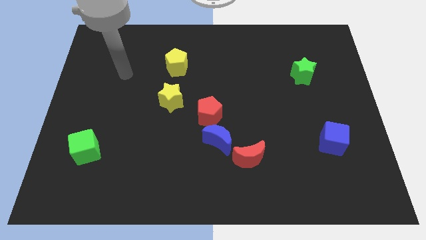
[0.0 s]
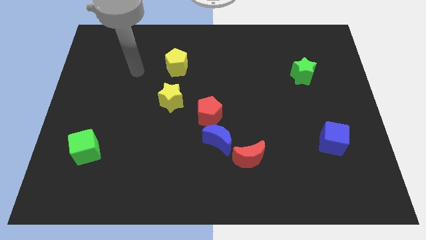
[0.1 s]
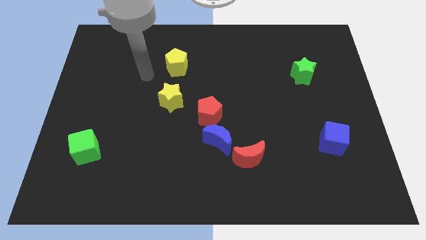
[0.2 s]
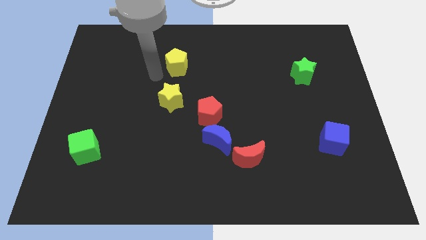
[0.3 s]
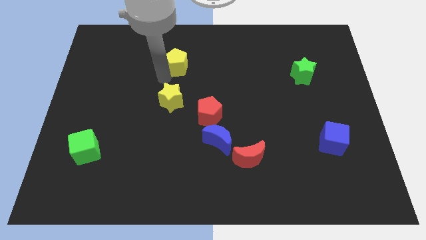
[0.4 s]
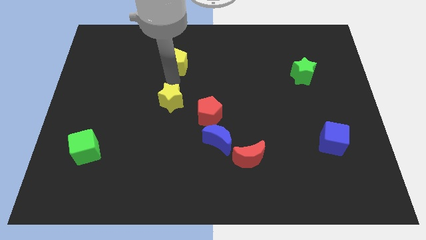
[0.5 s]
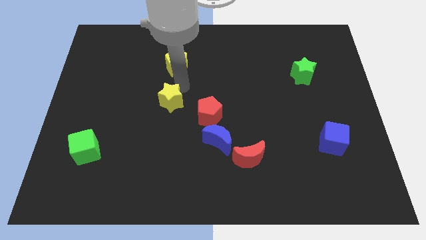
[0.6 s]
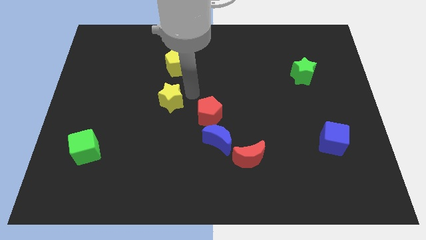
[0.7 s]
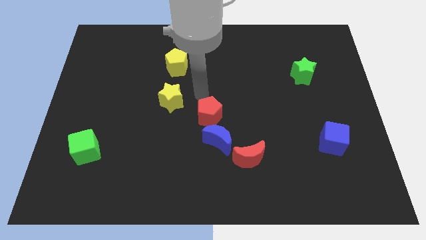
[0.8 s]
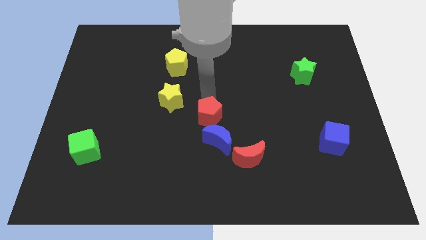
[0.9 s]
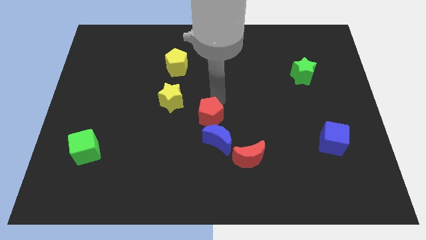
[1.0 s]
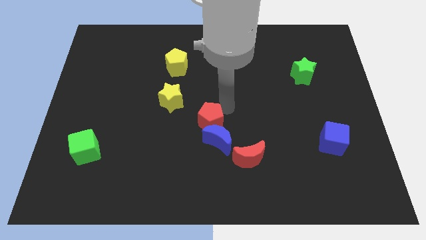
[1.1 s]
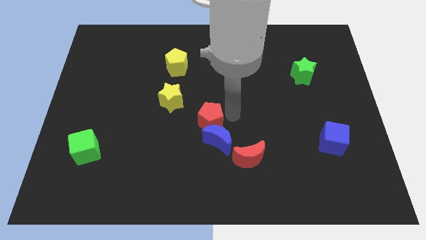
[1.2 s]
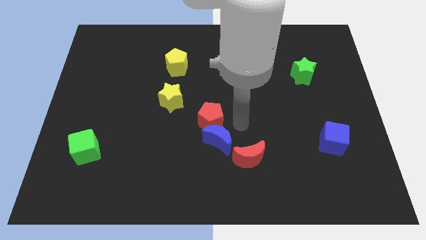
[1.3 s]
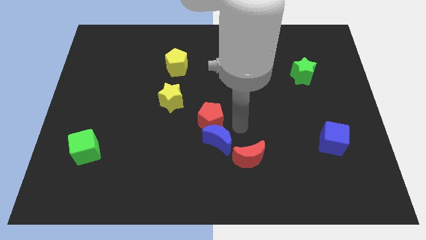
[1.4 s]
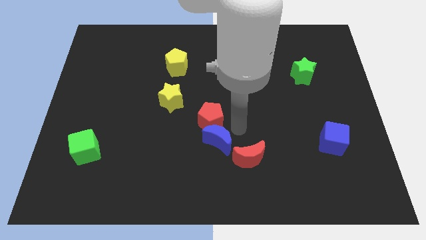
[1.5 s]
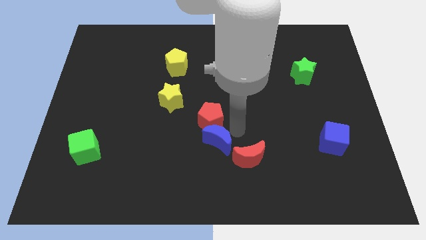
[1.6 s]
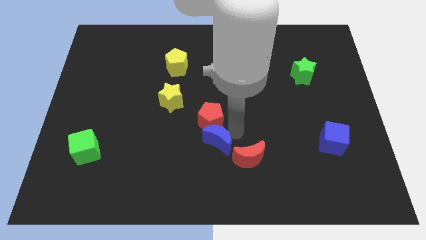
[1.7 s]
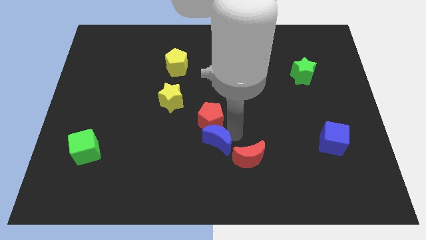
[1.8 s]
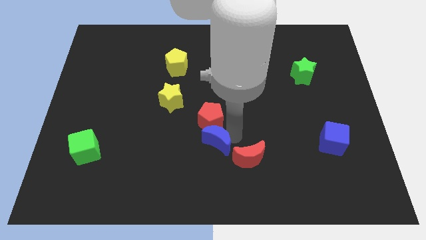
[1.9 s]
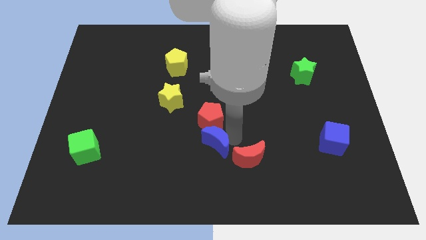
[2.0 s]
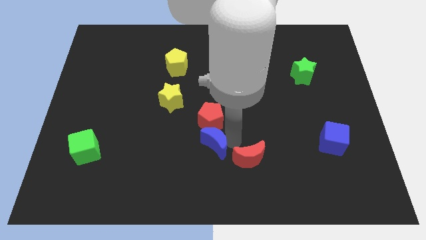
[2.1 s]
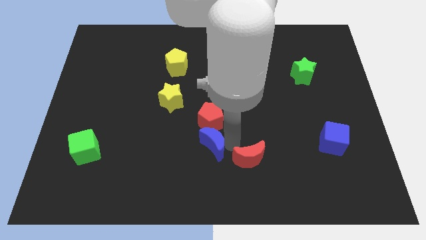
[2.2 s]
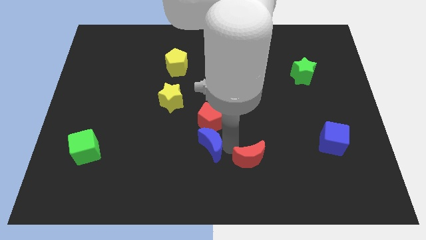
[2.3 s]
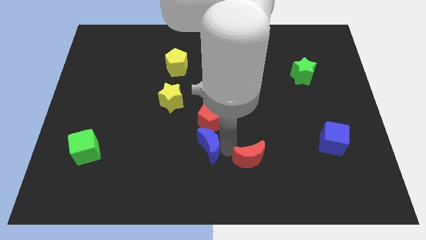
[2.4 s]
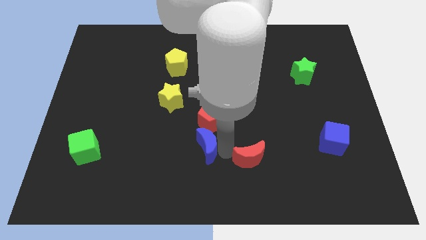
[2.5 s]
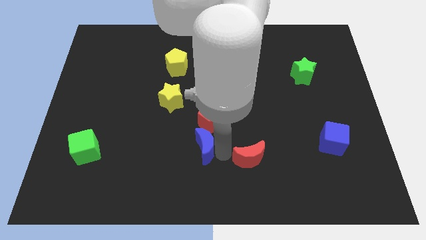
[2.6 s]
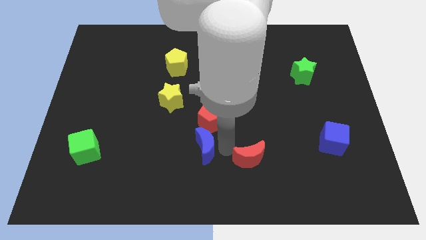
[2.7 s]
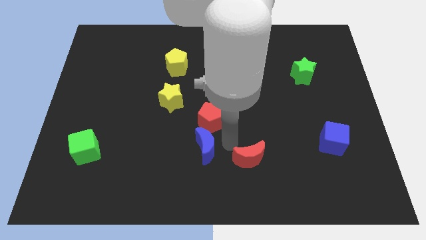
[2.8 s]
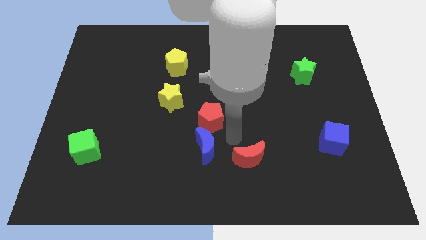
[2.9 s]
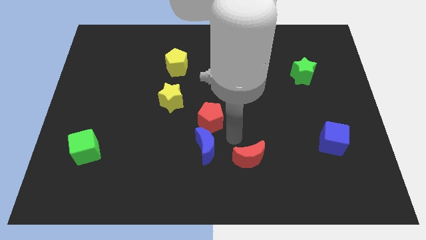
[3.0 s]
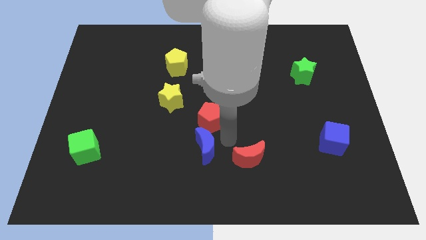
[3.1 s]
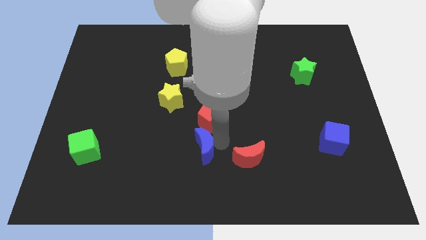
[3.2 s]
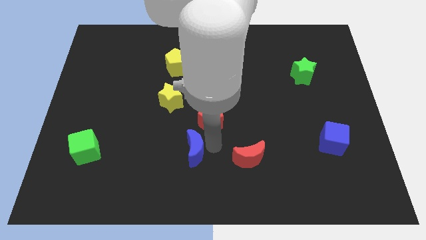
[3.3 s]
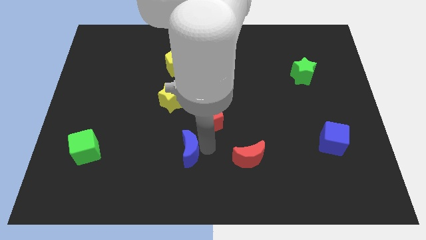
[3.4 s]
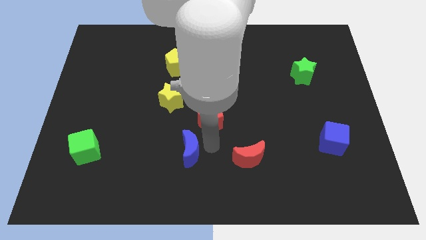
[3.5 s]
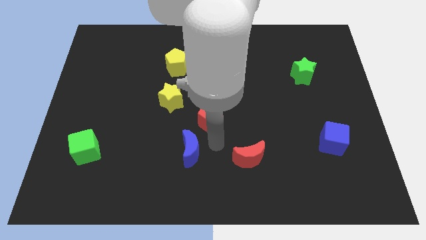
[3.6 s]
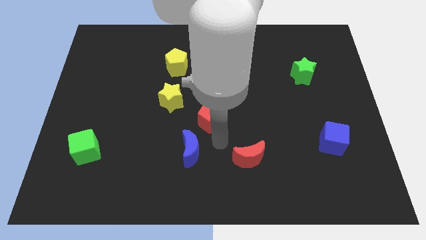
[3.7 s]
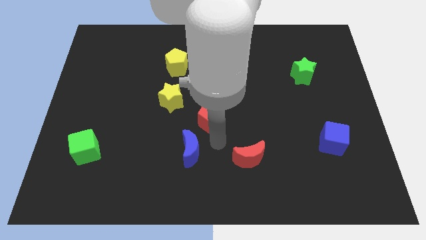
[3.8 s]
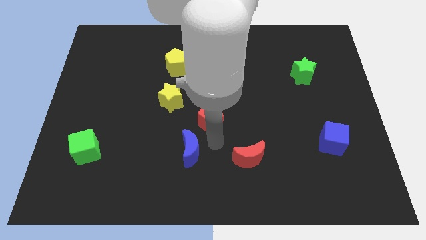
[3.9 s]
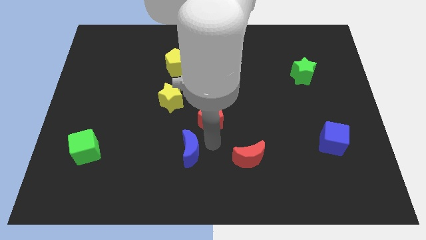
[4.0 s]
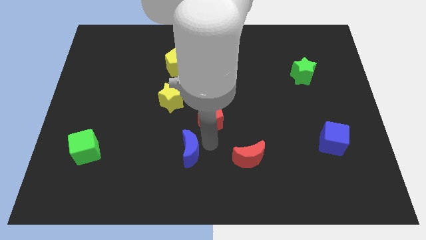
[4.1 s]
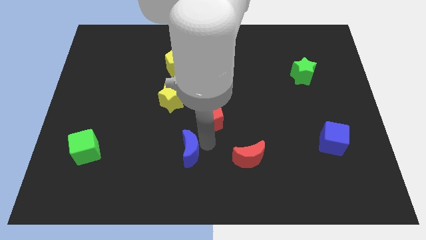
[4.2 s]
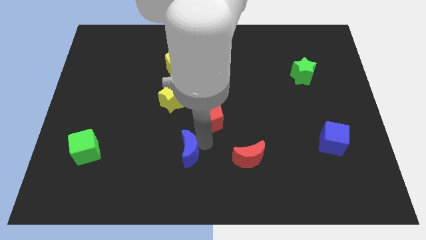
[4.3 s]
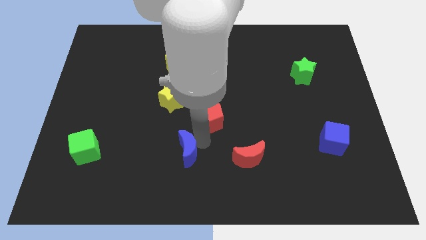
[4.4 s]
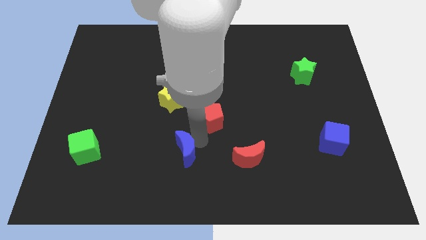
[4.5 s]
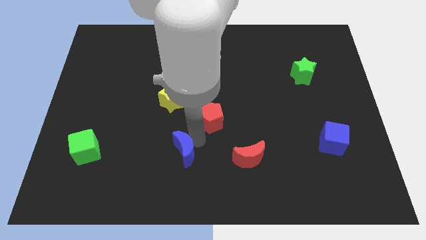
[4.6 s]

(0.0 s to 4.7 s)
separate the blue moon from the red pentagon and red moon

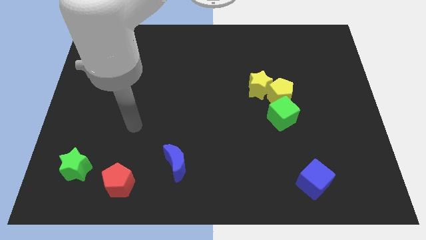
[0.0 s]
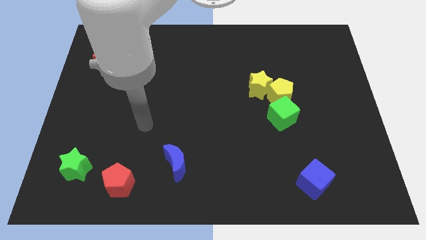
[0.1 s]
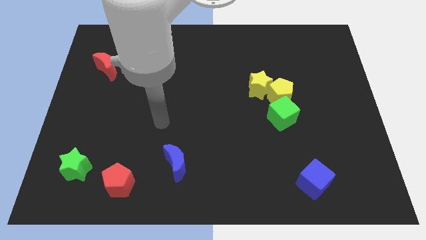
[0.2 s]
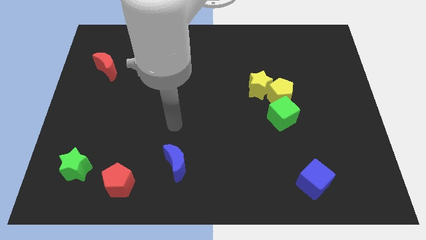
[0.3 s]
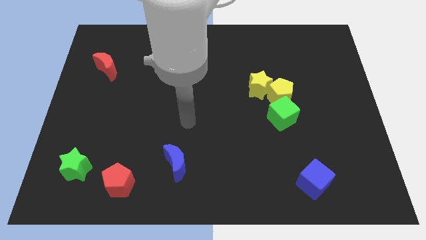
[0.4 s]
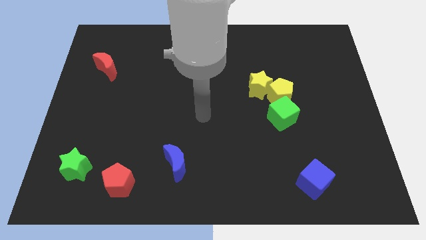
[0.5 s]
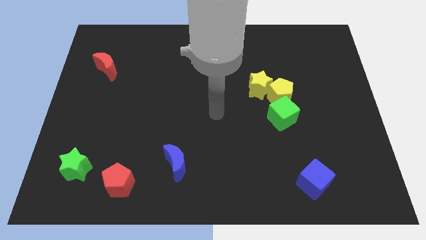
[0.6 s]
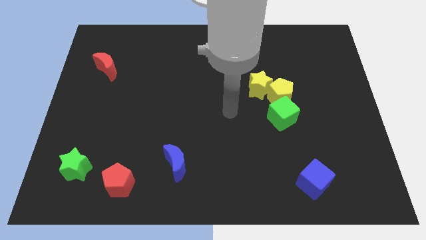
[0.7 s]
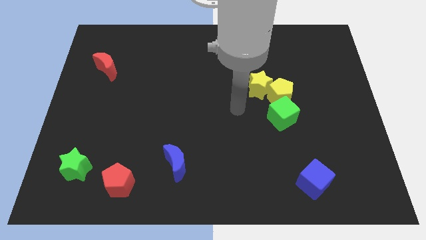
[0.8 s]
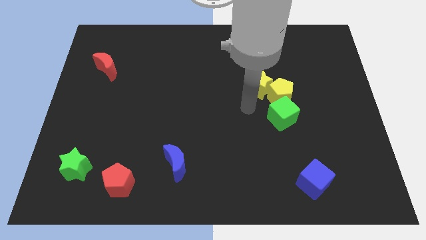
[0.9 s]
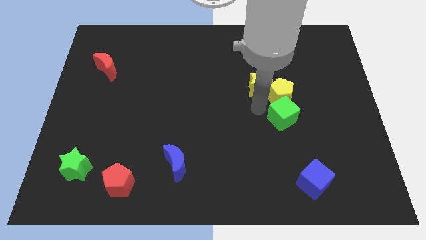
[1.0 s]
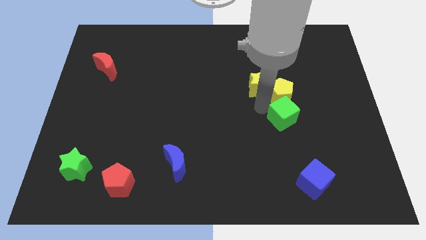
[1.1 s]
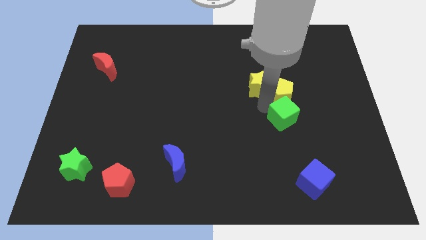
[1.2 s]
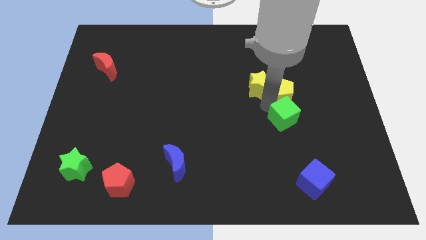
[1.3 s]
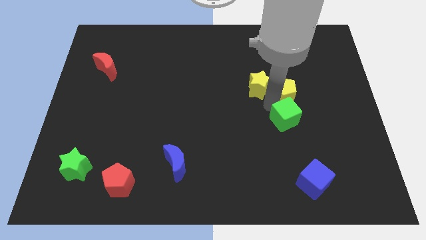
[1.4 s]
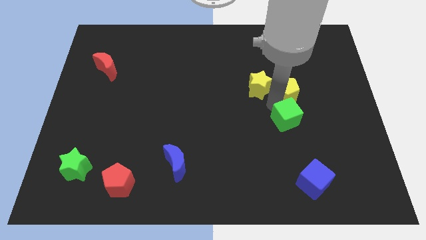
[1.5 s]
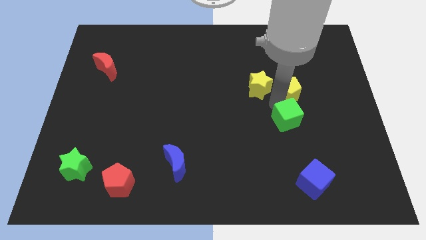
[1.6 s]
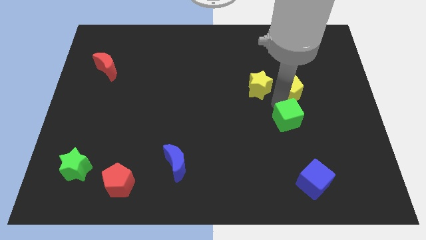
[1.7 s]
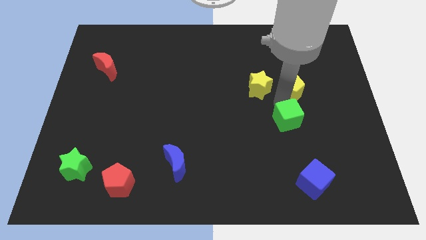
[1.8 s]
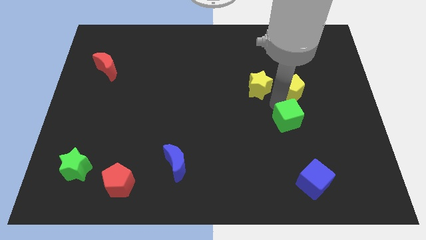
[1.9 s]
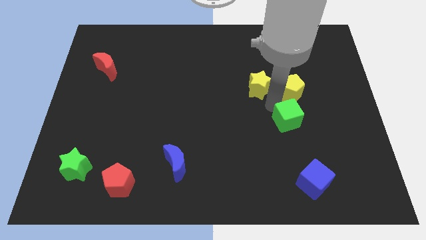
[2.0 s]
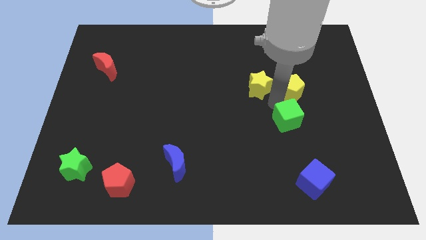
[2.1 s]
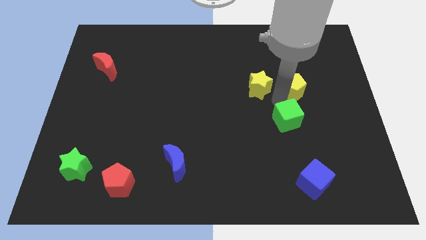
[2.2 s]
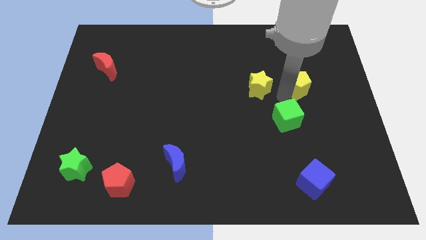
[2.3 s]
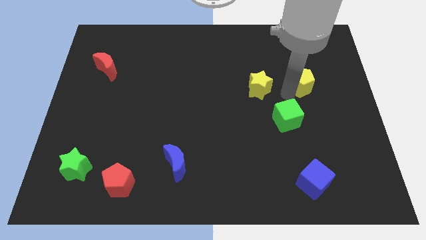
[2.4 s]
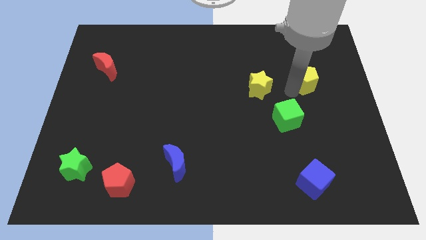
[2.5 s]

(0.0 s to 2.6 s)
pull the yellow pentagon apart from the yellow star and green cube

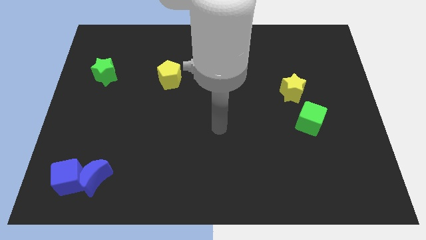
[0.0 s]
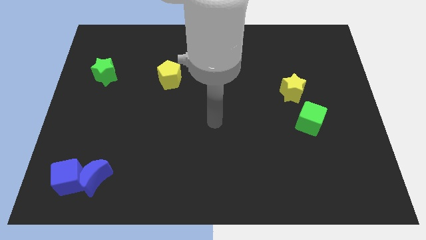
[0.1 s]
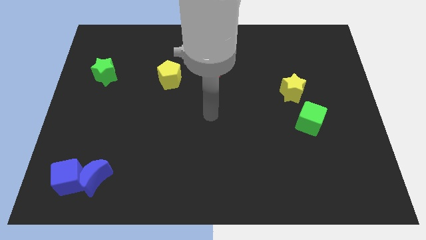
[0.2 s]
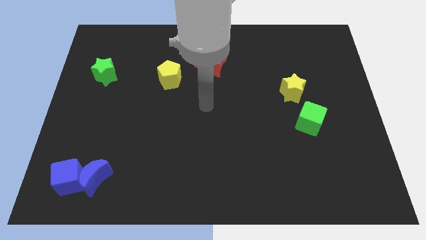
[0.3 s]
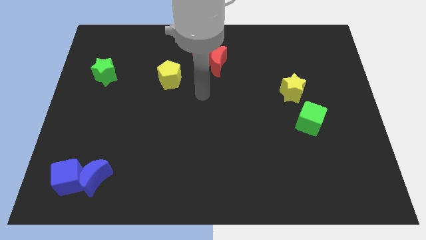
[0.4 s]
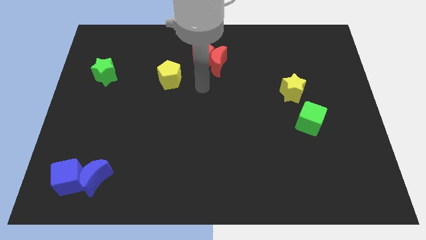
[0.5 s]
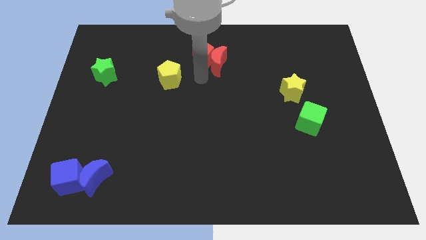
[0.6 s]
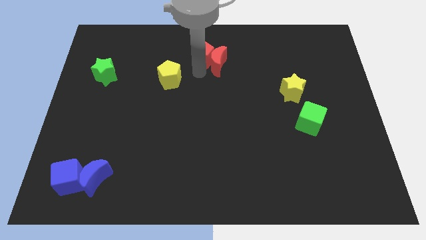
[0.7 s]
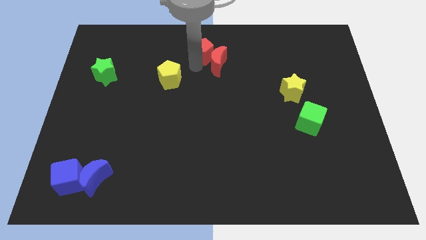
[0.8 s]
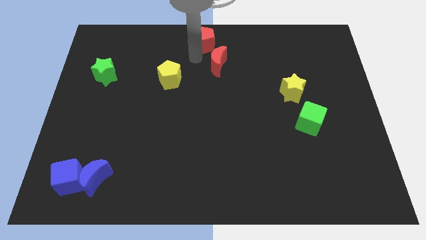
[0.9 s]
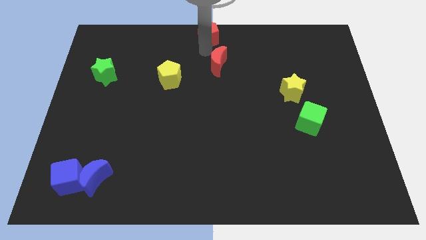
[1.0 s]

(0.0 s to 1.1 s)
pull the red moon apart from the red pentagon

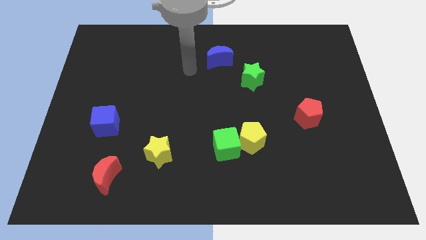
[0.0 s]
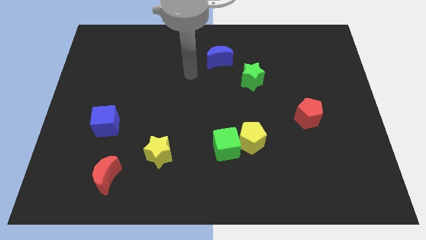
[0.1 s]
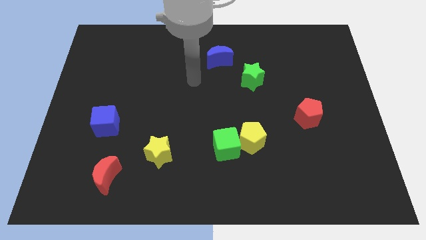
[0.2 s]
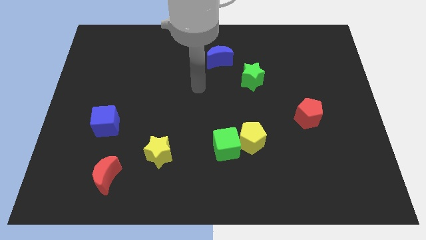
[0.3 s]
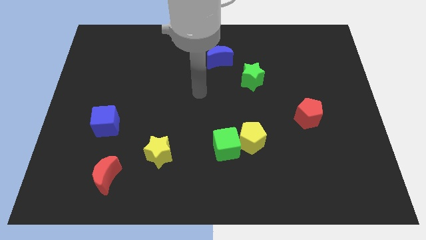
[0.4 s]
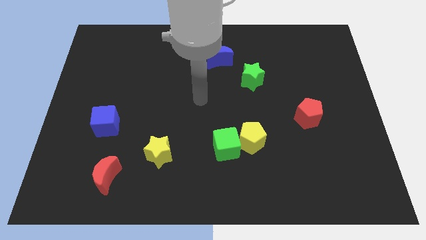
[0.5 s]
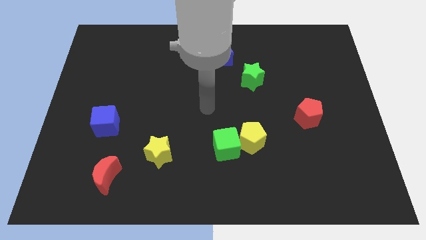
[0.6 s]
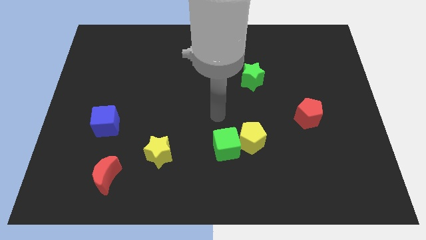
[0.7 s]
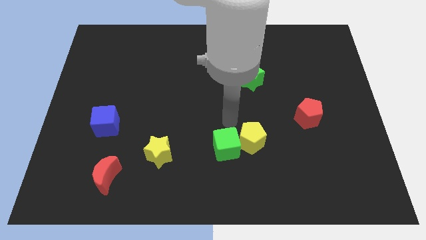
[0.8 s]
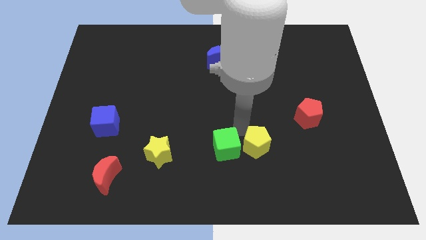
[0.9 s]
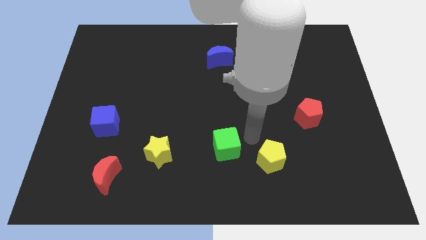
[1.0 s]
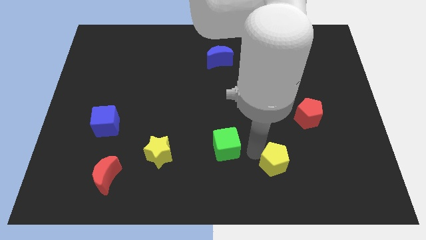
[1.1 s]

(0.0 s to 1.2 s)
separate the green cube from the yellow pentagon
